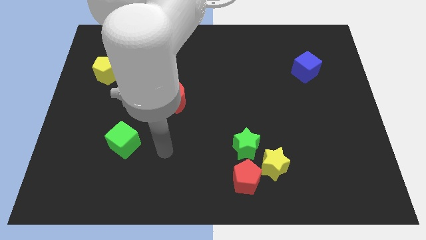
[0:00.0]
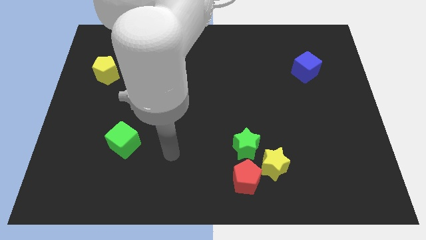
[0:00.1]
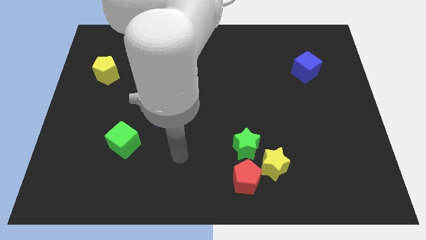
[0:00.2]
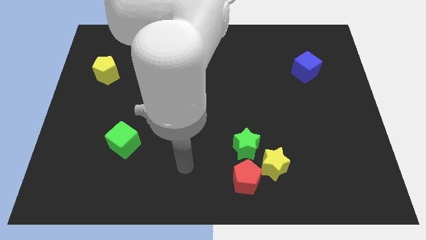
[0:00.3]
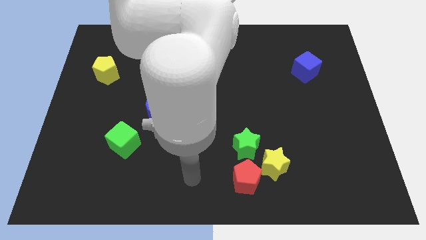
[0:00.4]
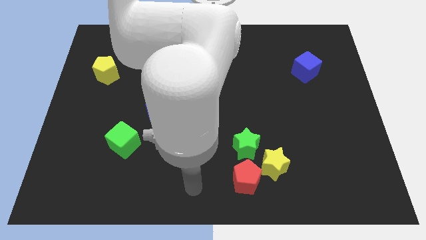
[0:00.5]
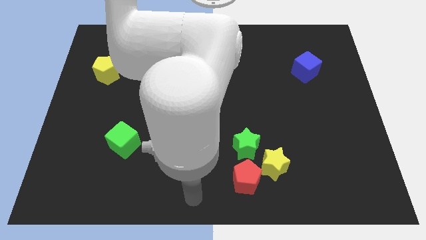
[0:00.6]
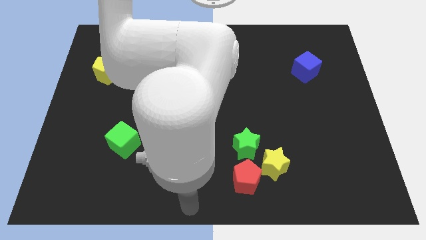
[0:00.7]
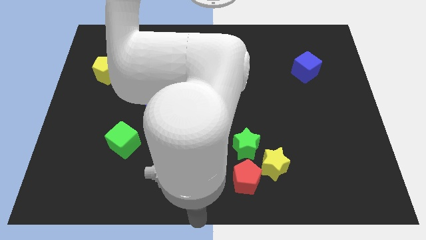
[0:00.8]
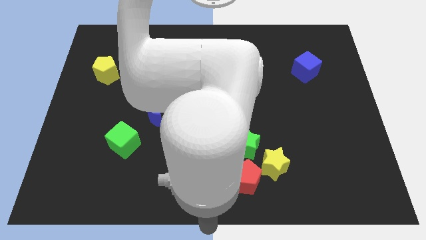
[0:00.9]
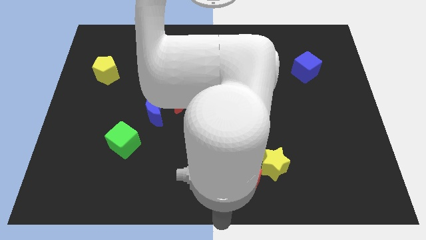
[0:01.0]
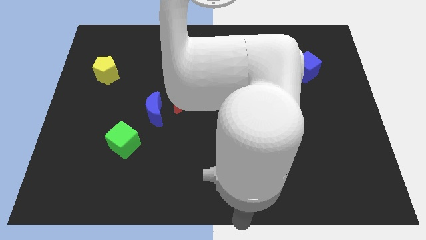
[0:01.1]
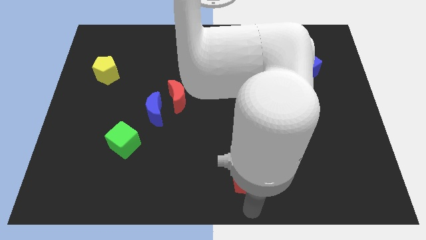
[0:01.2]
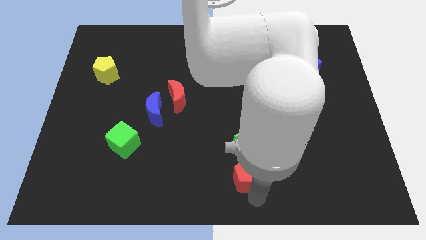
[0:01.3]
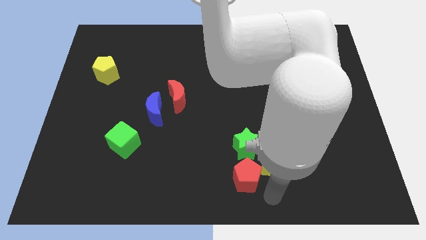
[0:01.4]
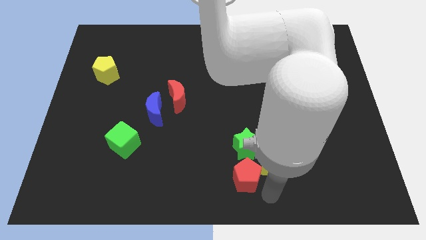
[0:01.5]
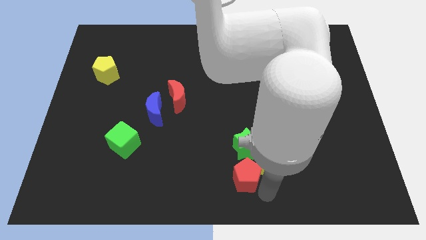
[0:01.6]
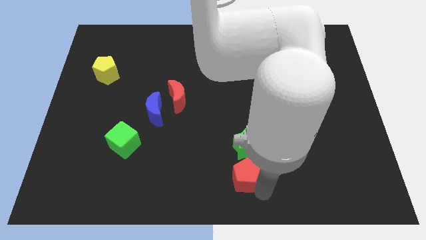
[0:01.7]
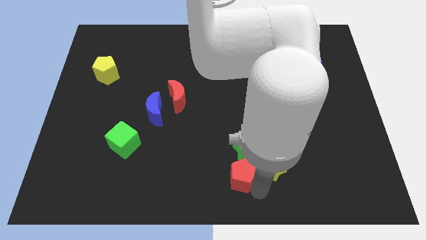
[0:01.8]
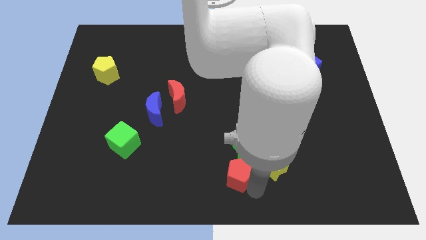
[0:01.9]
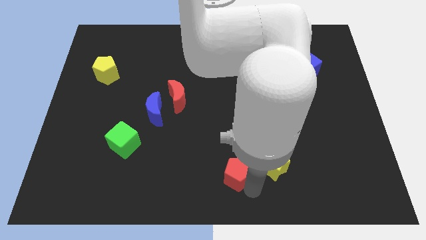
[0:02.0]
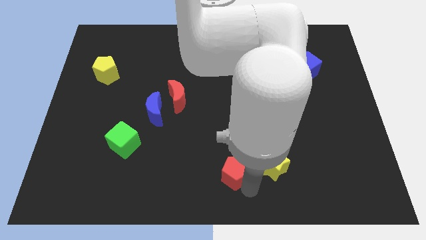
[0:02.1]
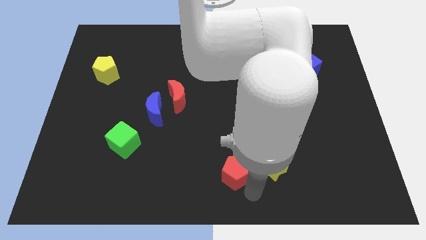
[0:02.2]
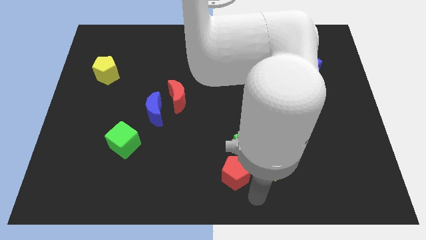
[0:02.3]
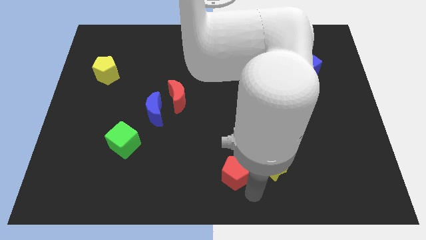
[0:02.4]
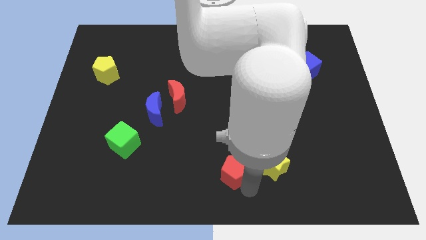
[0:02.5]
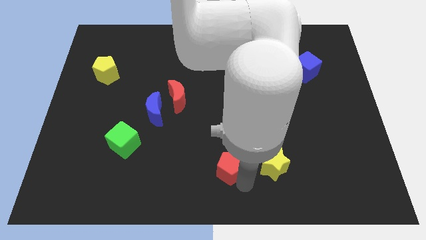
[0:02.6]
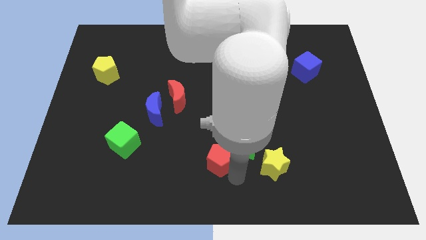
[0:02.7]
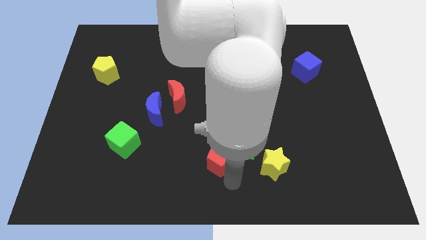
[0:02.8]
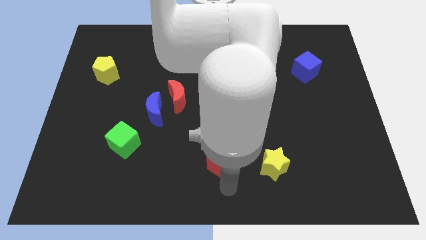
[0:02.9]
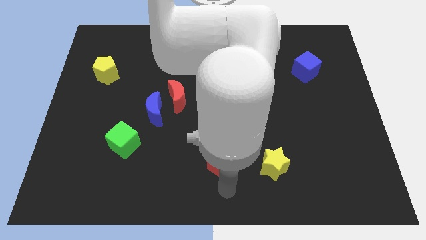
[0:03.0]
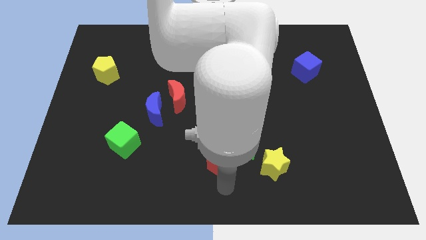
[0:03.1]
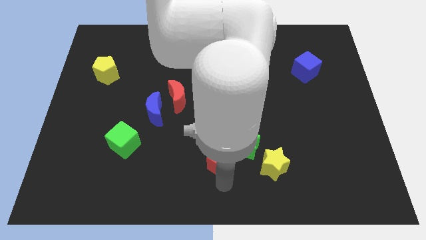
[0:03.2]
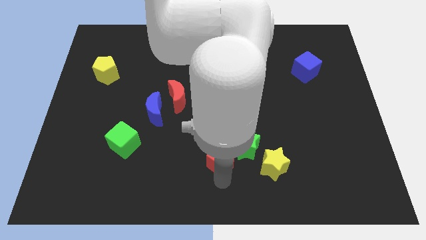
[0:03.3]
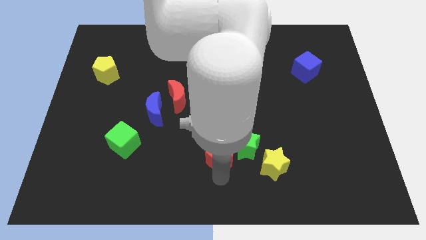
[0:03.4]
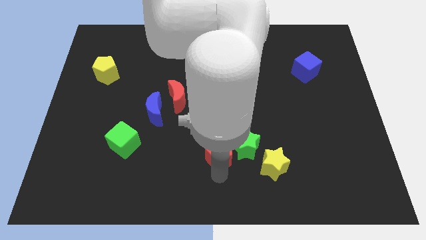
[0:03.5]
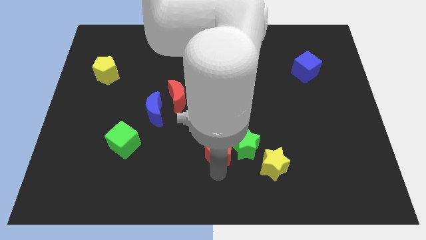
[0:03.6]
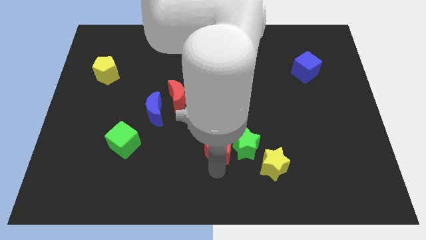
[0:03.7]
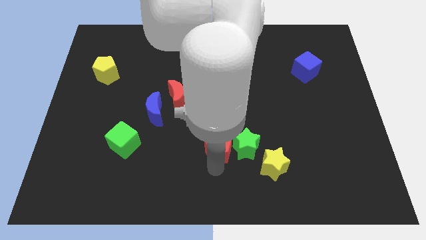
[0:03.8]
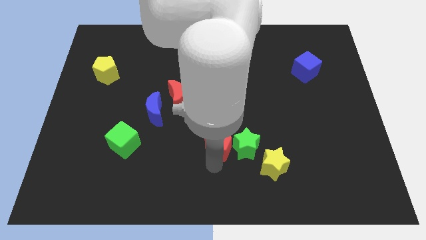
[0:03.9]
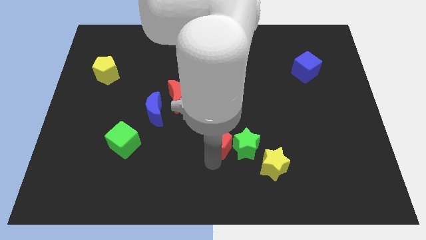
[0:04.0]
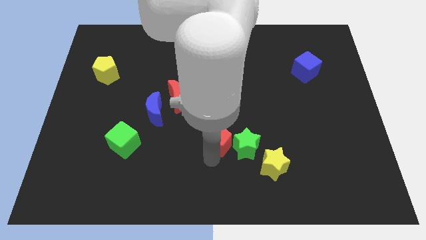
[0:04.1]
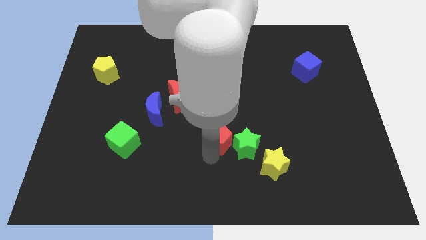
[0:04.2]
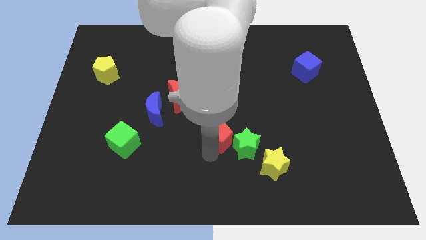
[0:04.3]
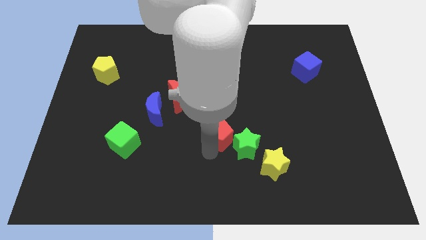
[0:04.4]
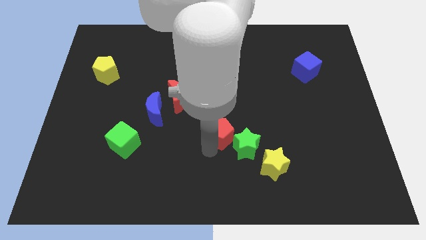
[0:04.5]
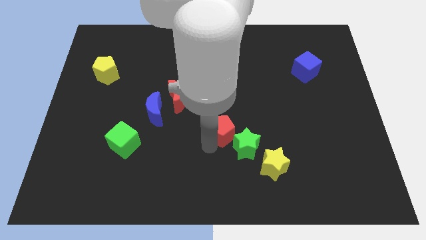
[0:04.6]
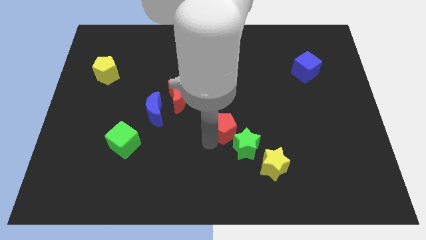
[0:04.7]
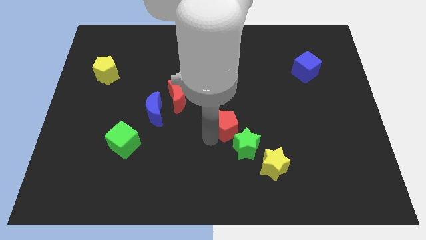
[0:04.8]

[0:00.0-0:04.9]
slide the red pentagon to the top of the green star

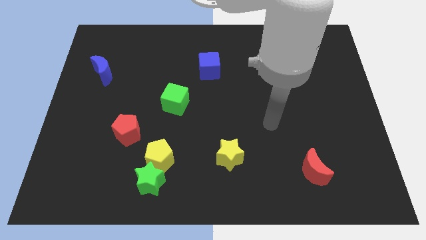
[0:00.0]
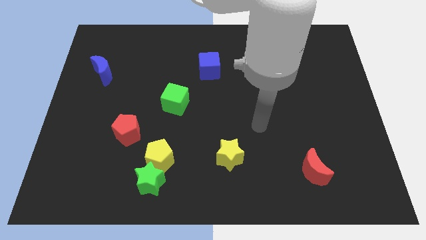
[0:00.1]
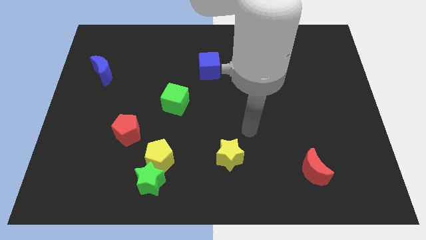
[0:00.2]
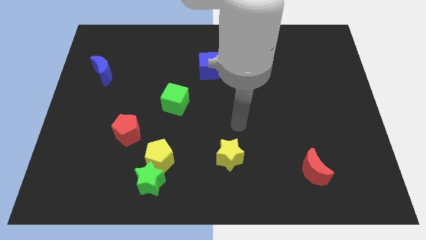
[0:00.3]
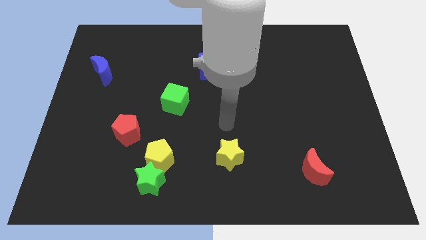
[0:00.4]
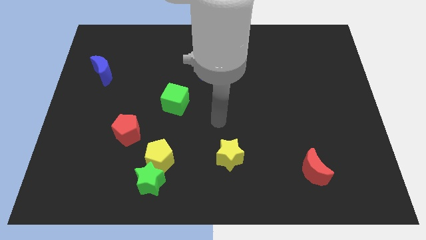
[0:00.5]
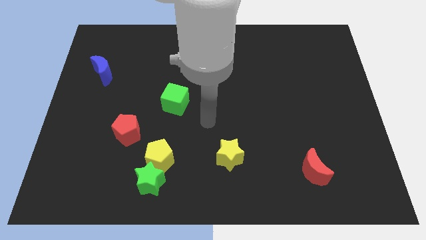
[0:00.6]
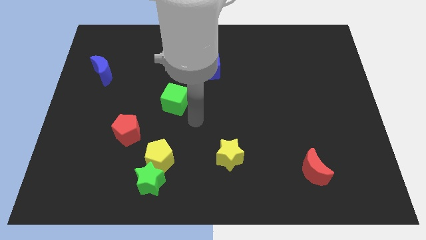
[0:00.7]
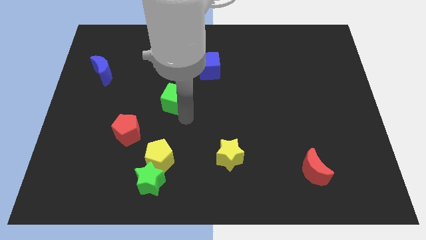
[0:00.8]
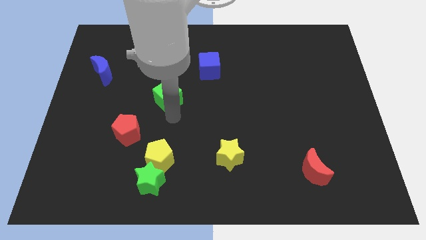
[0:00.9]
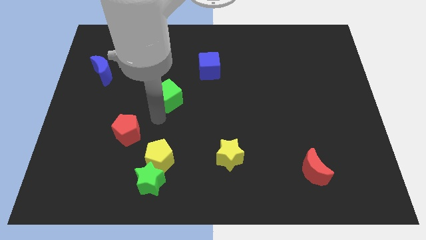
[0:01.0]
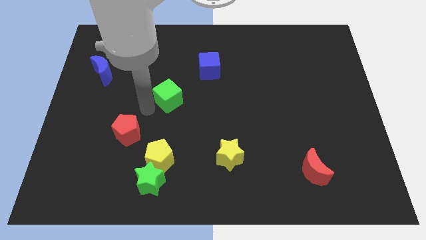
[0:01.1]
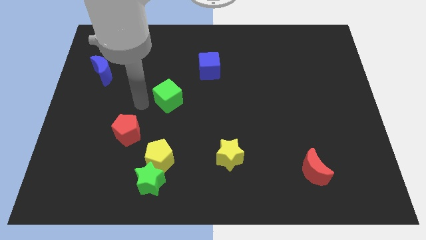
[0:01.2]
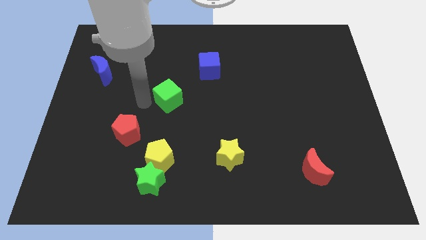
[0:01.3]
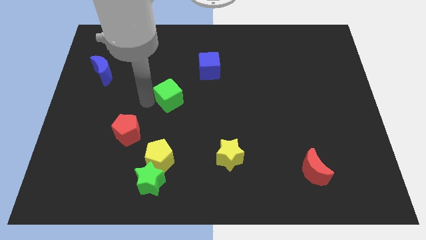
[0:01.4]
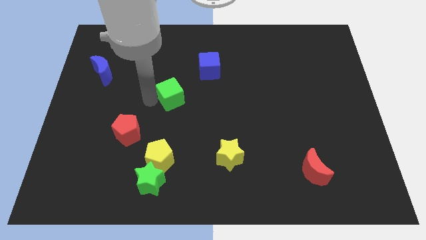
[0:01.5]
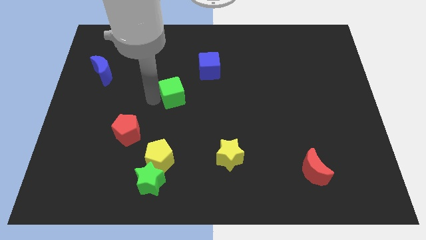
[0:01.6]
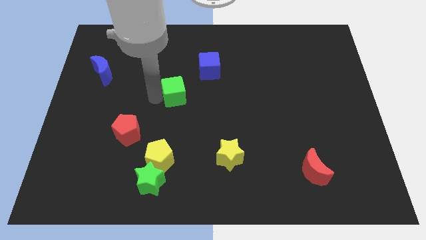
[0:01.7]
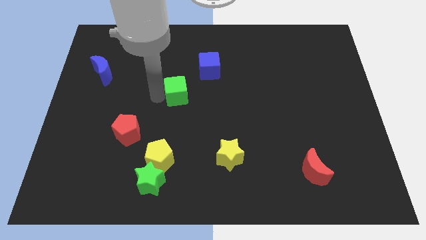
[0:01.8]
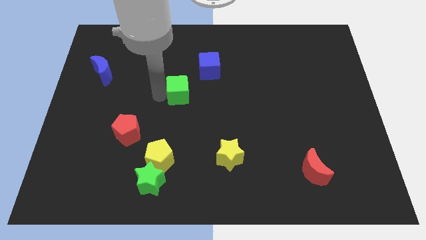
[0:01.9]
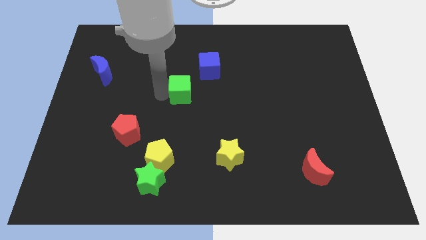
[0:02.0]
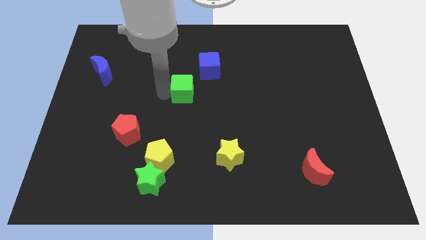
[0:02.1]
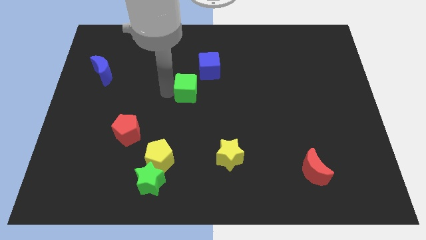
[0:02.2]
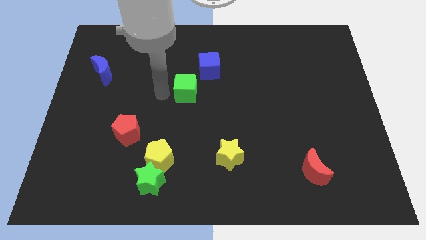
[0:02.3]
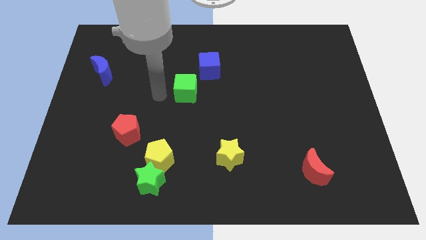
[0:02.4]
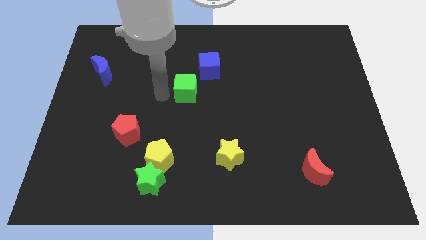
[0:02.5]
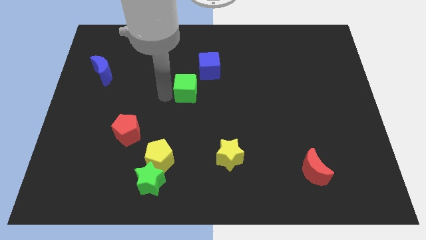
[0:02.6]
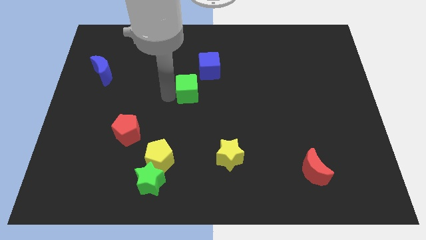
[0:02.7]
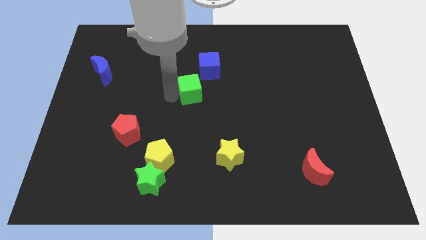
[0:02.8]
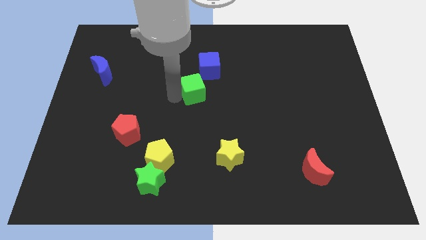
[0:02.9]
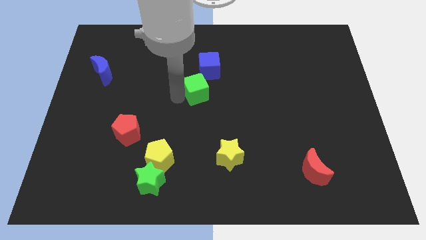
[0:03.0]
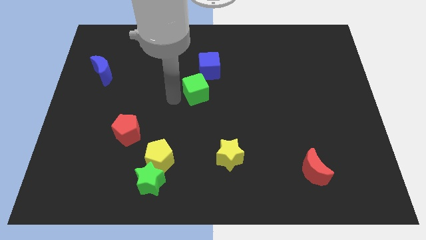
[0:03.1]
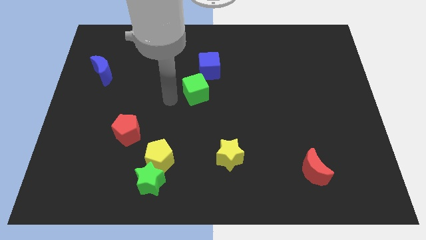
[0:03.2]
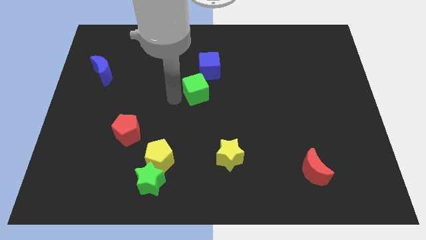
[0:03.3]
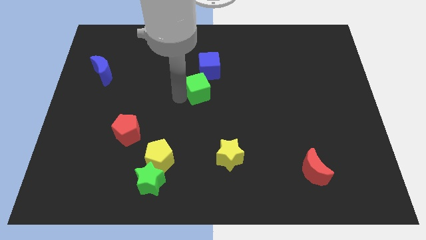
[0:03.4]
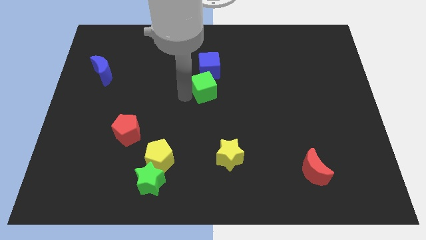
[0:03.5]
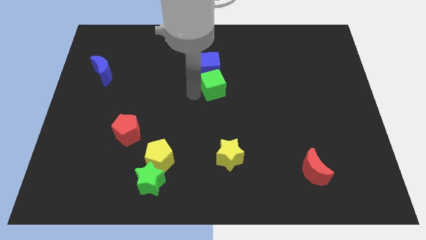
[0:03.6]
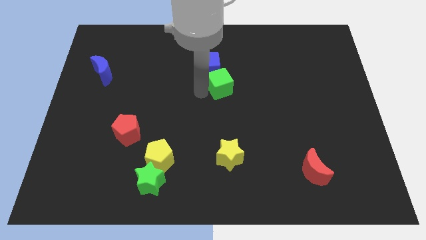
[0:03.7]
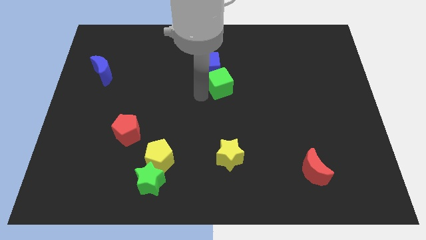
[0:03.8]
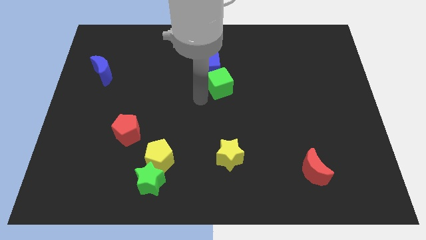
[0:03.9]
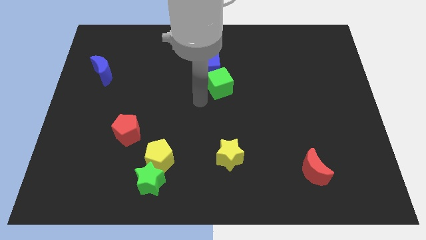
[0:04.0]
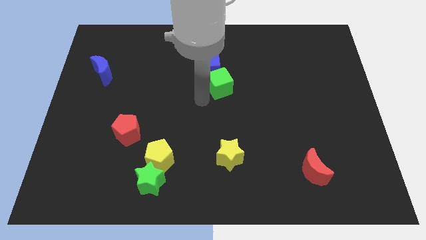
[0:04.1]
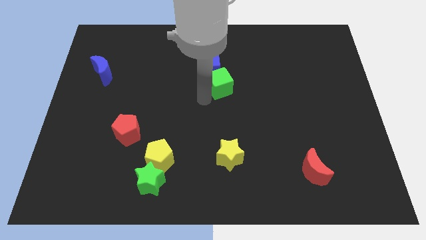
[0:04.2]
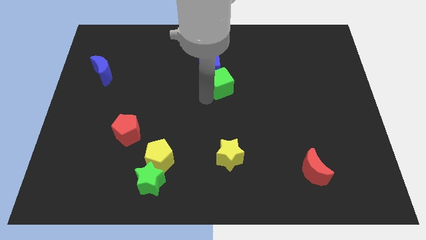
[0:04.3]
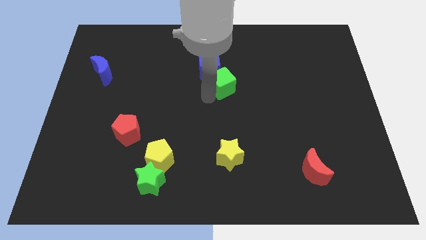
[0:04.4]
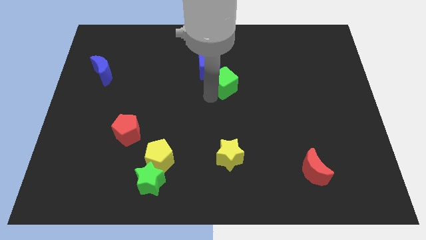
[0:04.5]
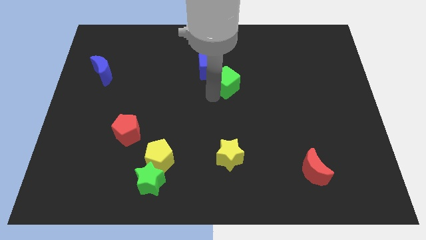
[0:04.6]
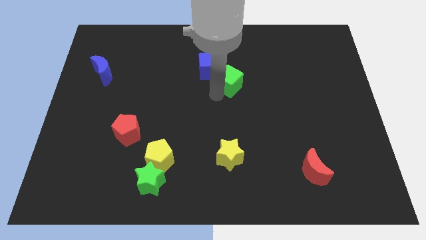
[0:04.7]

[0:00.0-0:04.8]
move the green cube to the right side of the blue cube
